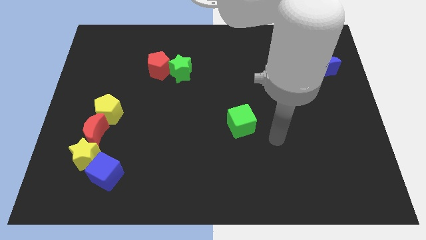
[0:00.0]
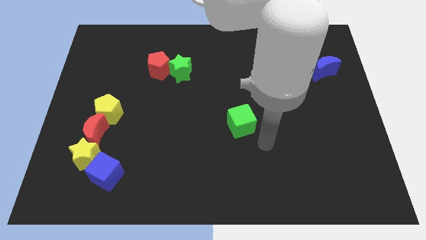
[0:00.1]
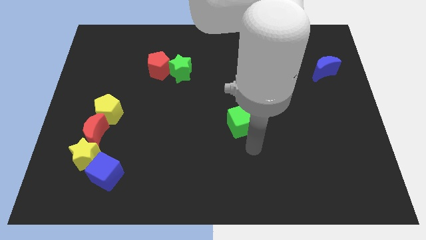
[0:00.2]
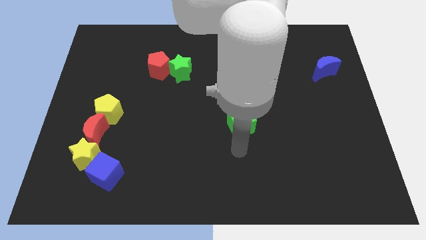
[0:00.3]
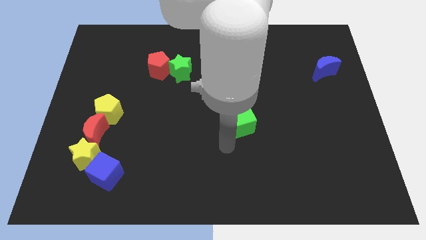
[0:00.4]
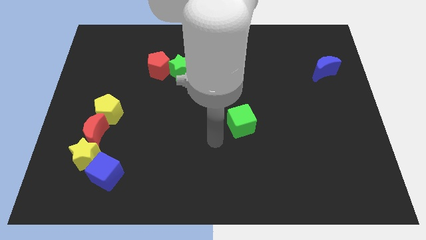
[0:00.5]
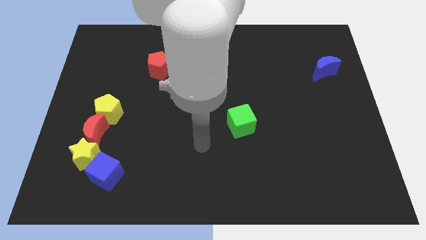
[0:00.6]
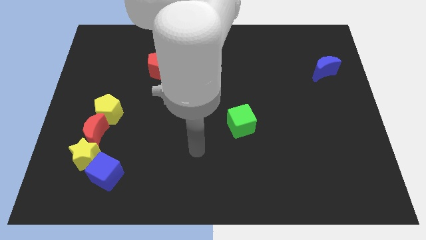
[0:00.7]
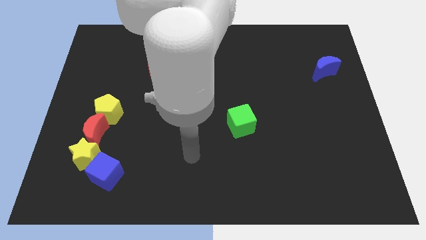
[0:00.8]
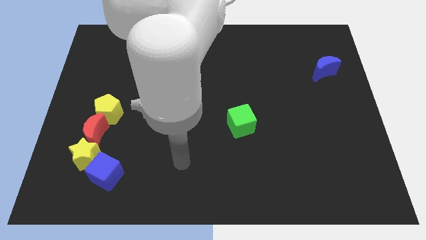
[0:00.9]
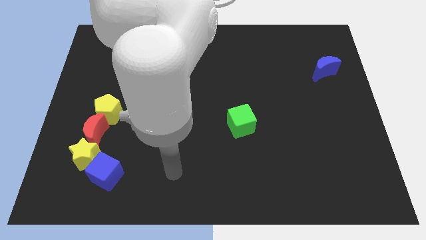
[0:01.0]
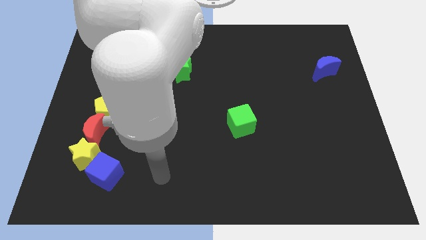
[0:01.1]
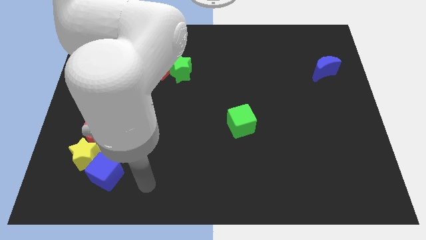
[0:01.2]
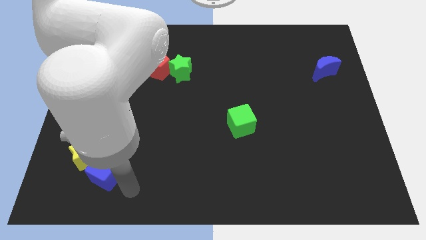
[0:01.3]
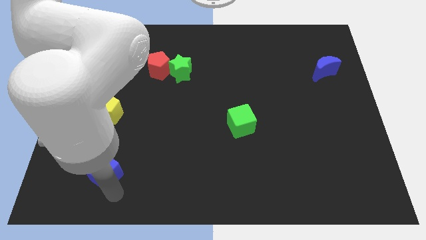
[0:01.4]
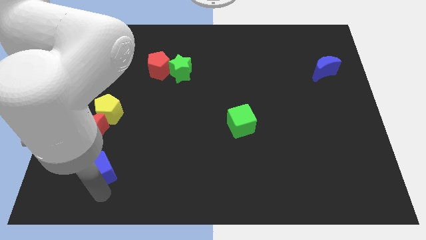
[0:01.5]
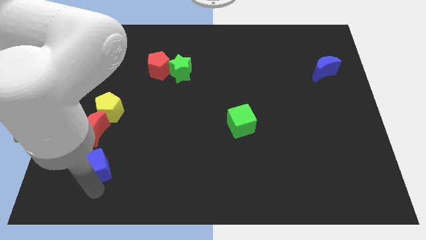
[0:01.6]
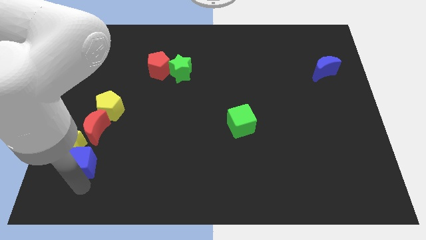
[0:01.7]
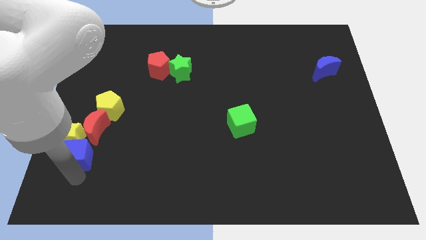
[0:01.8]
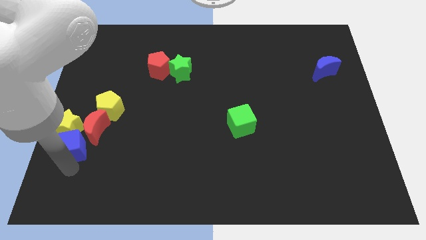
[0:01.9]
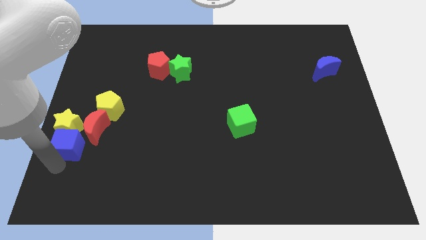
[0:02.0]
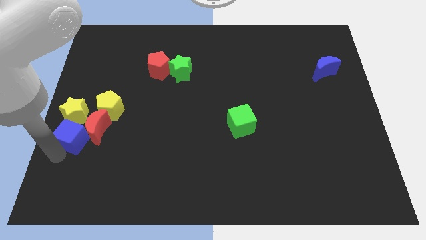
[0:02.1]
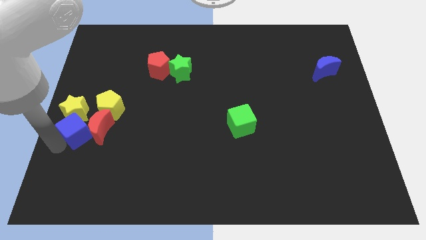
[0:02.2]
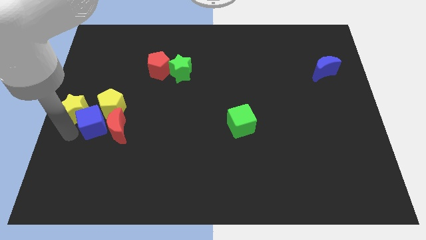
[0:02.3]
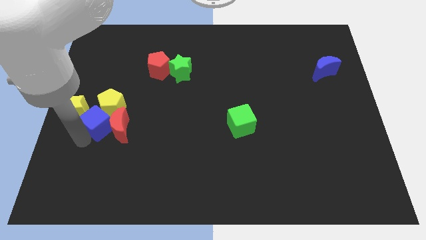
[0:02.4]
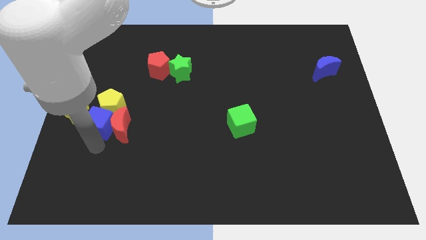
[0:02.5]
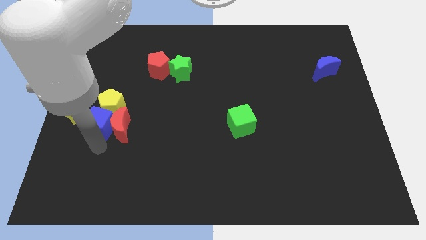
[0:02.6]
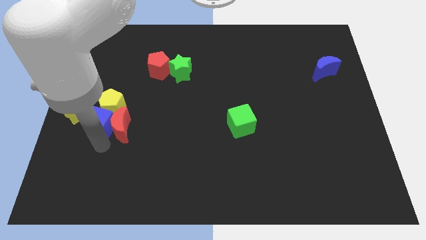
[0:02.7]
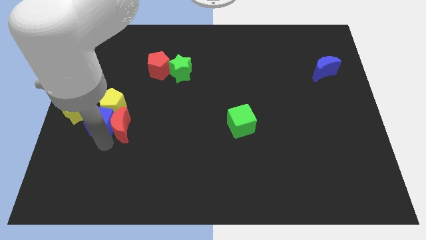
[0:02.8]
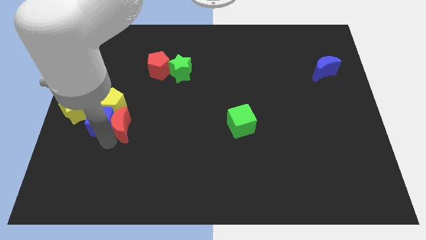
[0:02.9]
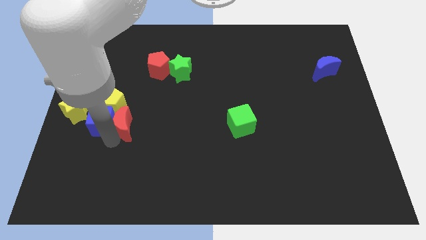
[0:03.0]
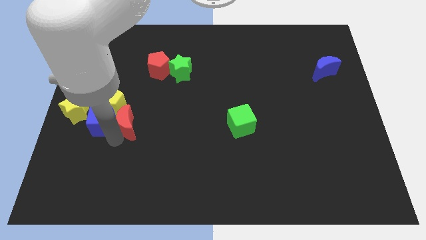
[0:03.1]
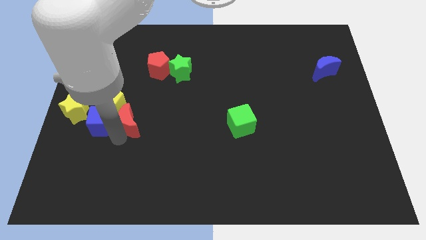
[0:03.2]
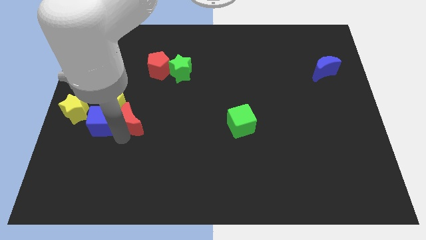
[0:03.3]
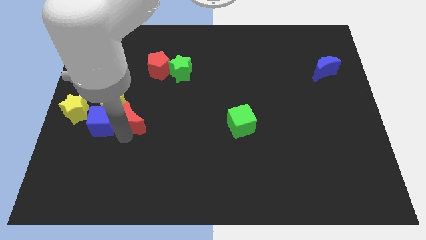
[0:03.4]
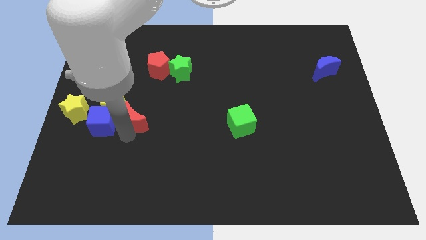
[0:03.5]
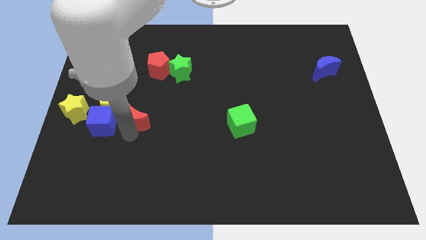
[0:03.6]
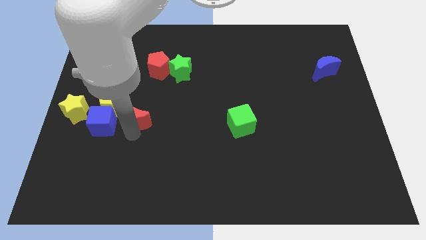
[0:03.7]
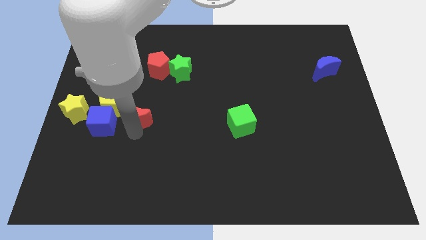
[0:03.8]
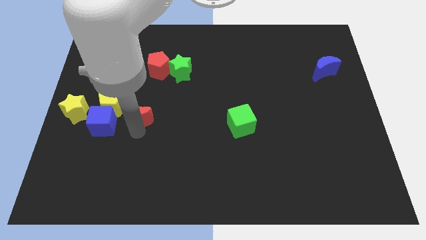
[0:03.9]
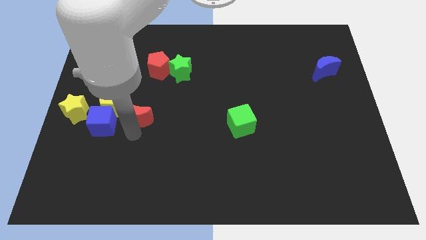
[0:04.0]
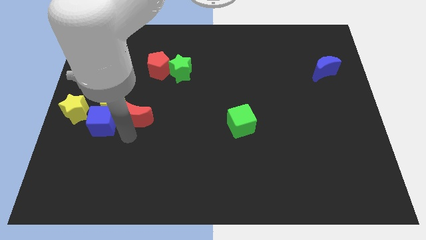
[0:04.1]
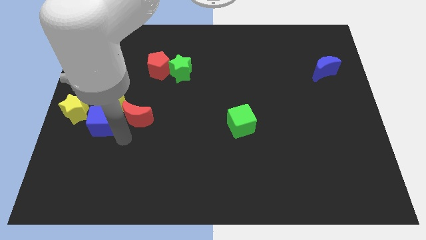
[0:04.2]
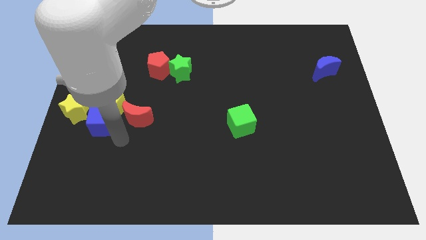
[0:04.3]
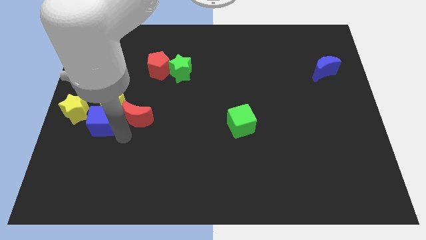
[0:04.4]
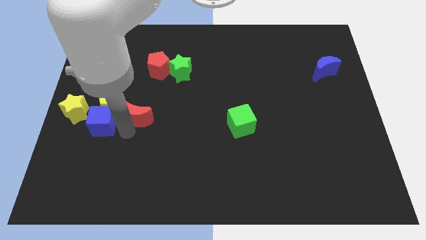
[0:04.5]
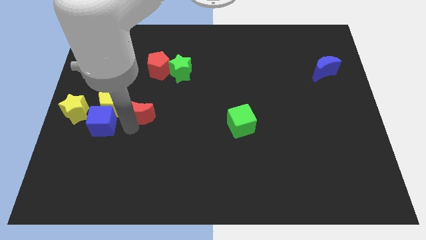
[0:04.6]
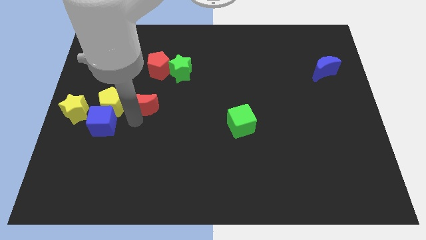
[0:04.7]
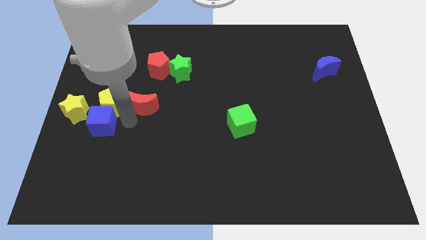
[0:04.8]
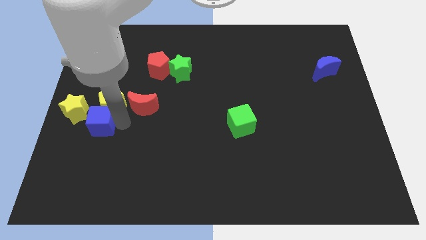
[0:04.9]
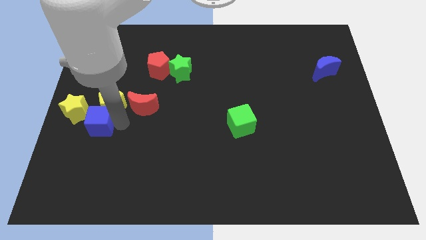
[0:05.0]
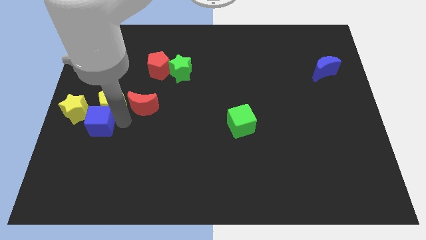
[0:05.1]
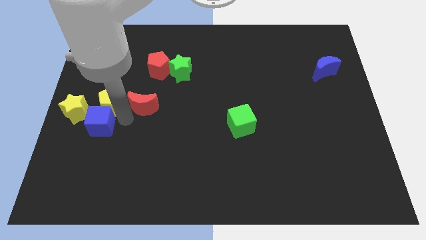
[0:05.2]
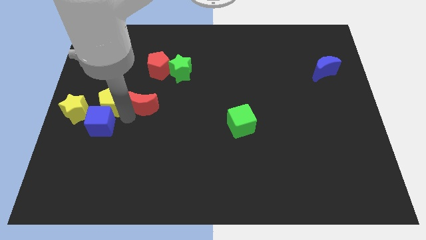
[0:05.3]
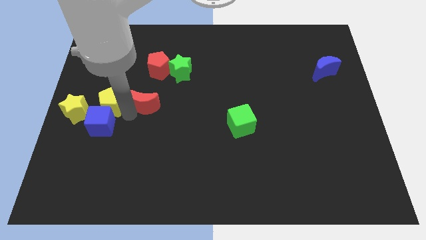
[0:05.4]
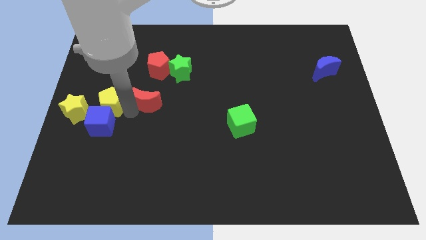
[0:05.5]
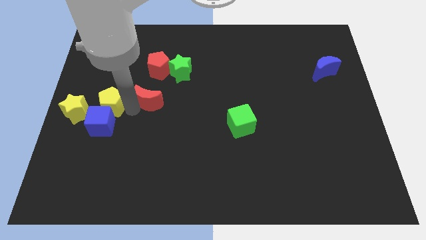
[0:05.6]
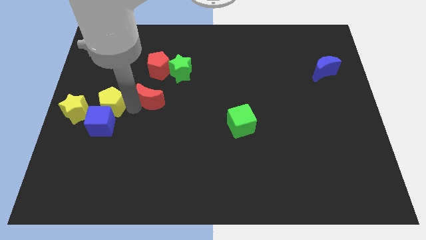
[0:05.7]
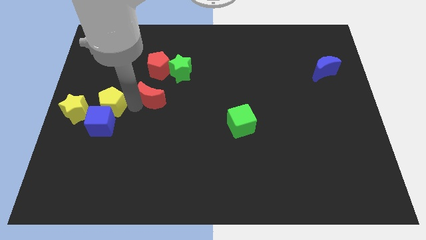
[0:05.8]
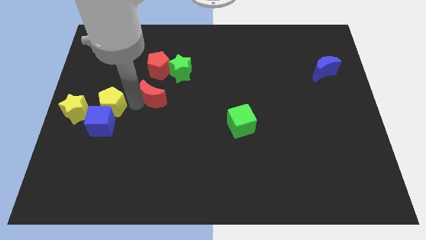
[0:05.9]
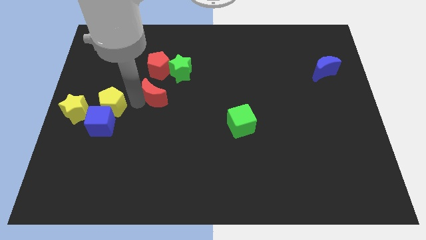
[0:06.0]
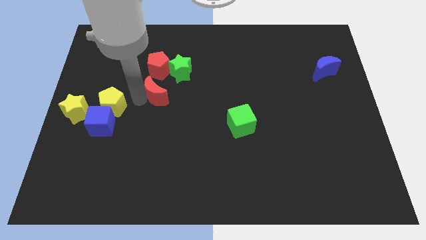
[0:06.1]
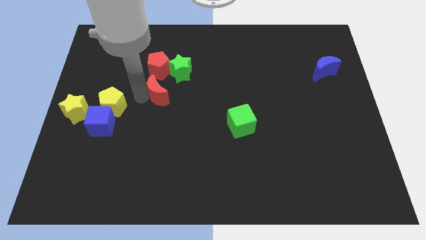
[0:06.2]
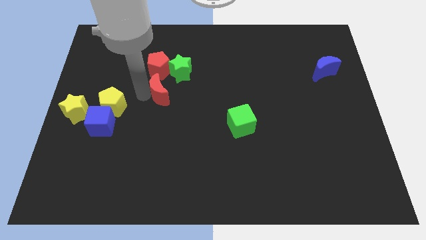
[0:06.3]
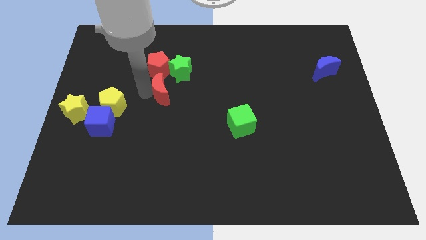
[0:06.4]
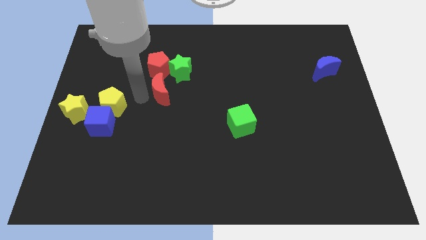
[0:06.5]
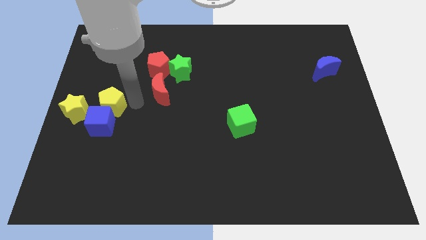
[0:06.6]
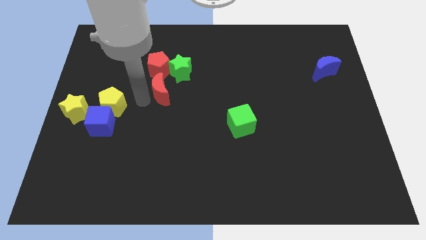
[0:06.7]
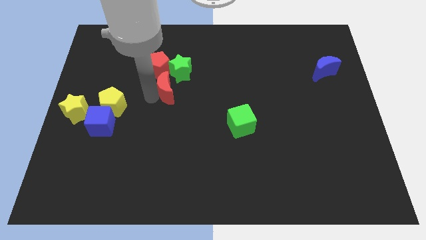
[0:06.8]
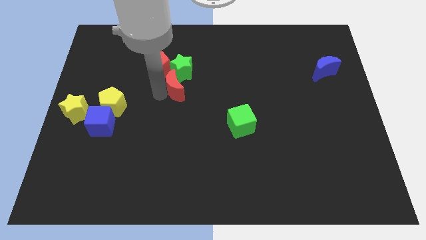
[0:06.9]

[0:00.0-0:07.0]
push the red moon up and to the right diagonally

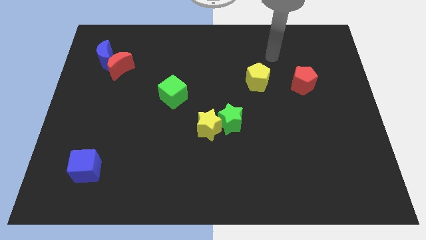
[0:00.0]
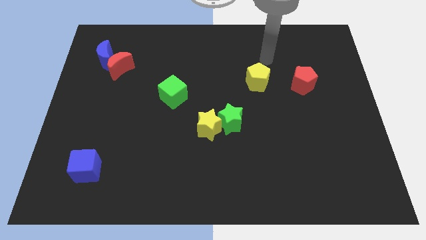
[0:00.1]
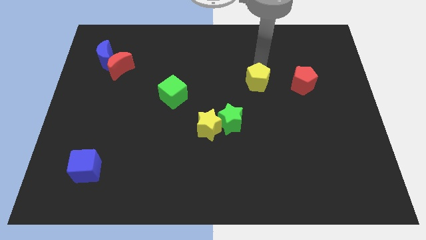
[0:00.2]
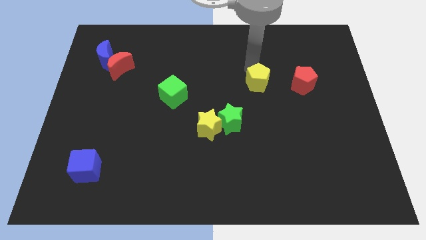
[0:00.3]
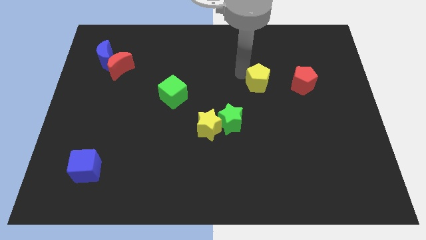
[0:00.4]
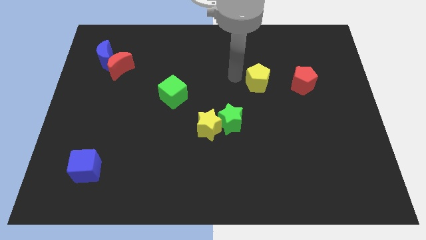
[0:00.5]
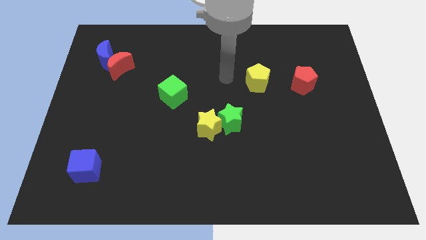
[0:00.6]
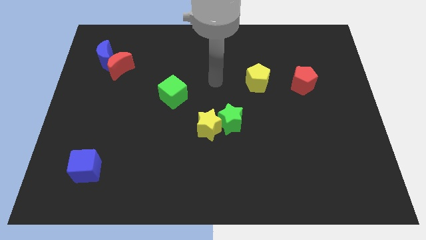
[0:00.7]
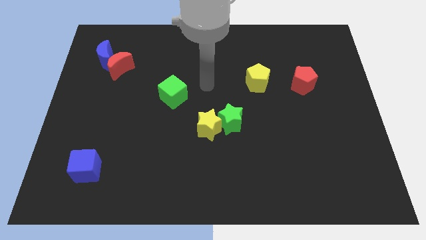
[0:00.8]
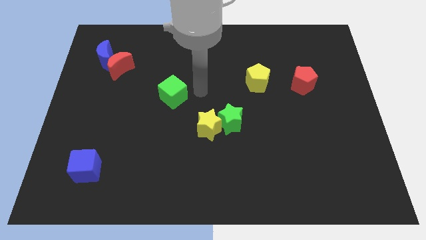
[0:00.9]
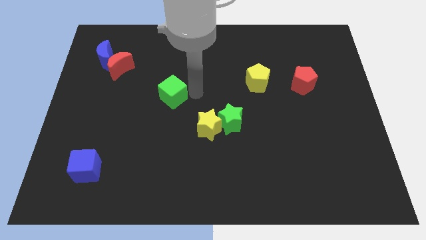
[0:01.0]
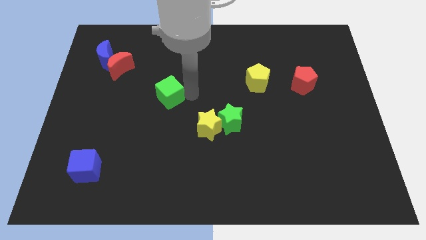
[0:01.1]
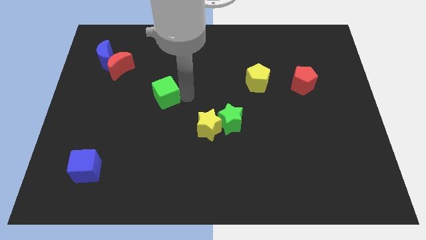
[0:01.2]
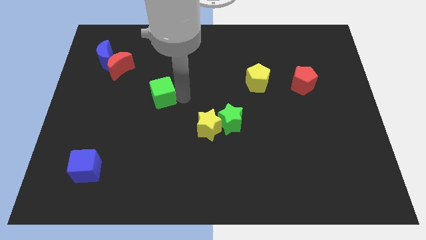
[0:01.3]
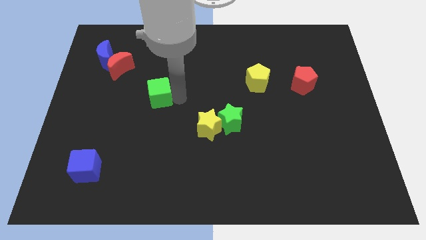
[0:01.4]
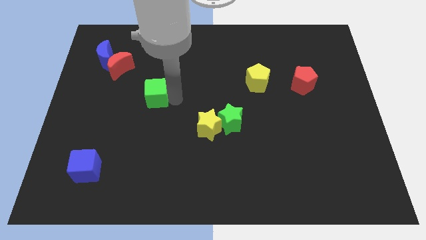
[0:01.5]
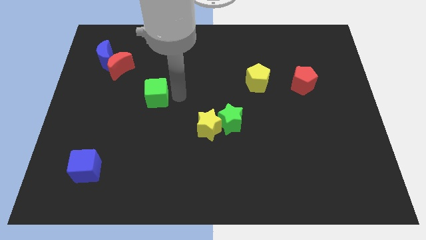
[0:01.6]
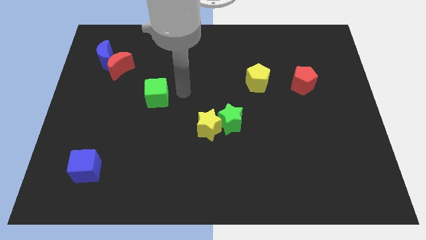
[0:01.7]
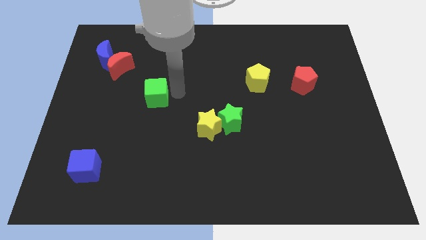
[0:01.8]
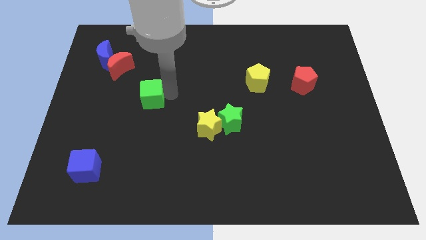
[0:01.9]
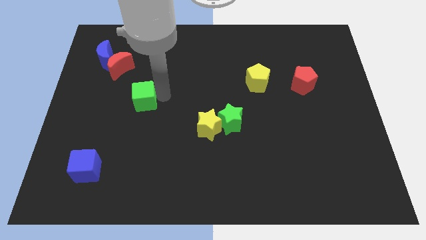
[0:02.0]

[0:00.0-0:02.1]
move the green cube somewhat to the left
